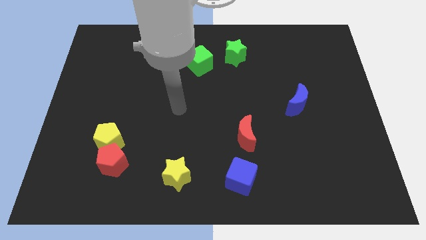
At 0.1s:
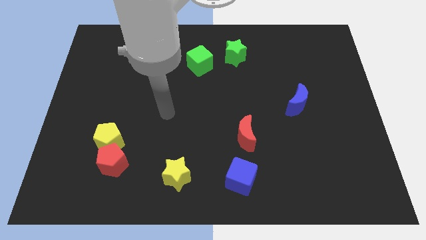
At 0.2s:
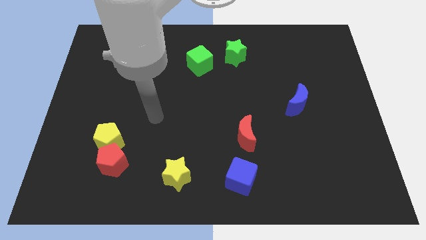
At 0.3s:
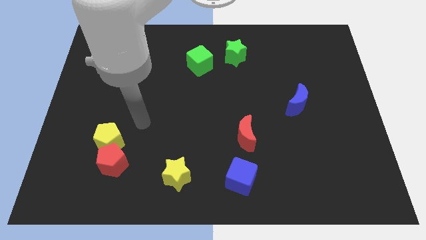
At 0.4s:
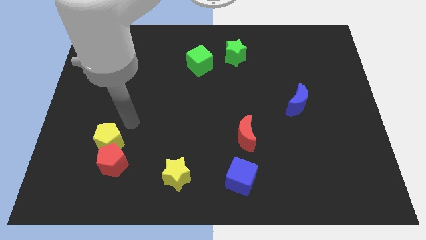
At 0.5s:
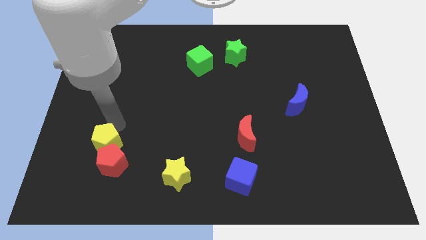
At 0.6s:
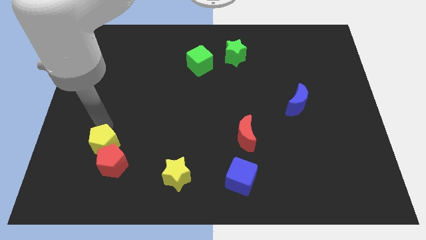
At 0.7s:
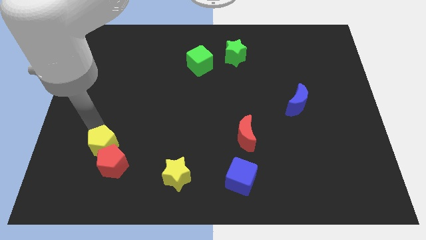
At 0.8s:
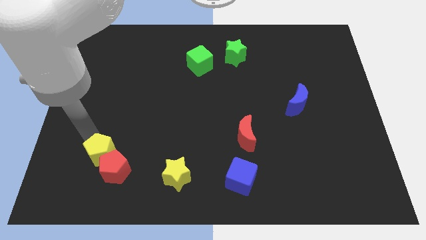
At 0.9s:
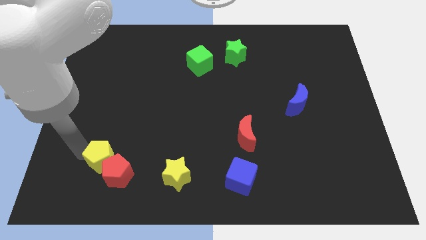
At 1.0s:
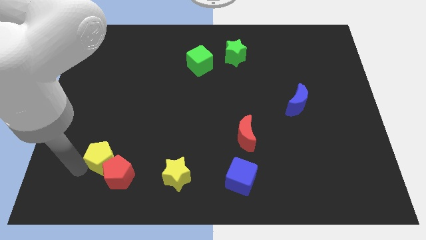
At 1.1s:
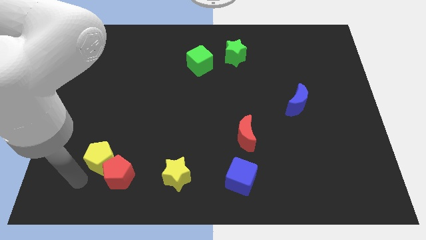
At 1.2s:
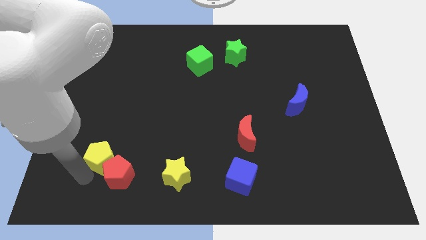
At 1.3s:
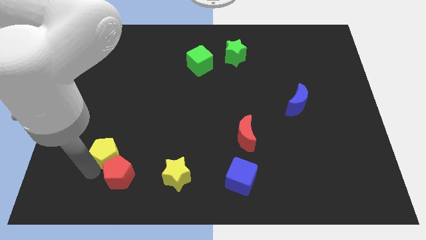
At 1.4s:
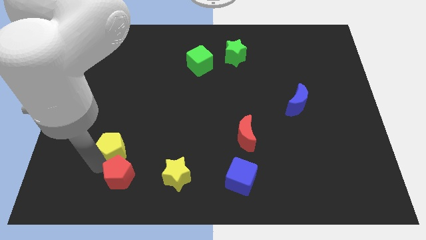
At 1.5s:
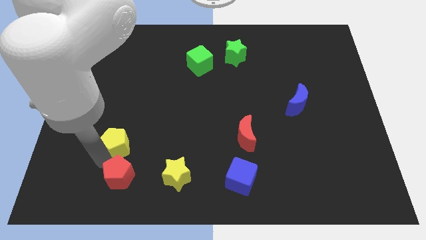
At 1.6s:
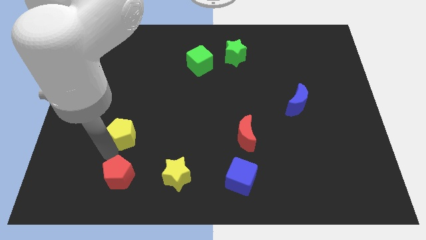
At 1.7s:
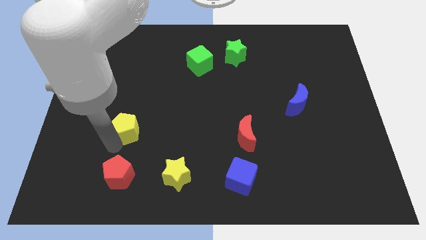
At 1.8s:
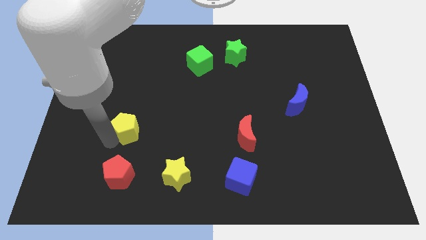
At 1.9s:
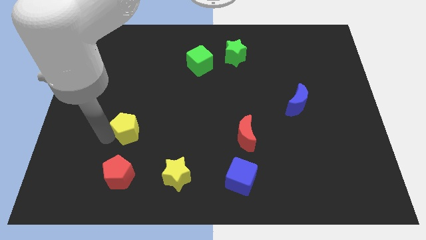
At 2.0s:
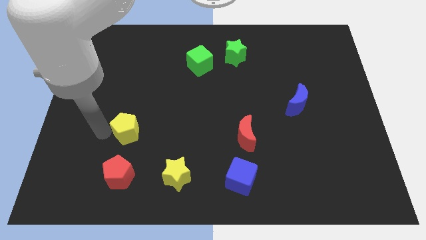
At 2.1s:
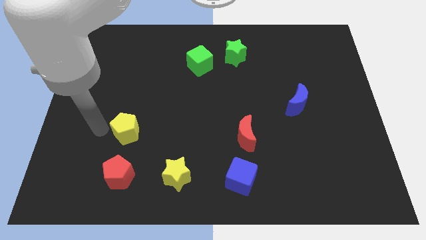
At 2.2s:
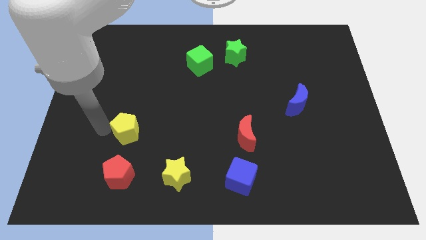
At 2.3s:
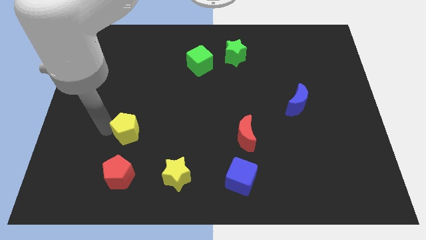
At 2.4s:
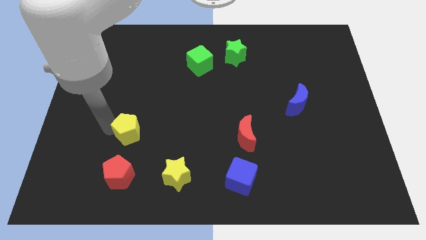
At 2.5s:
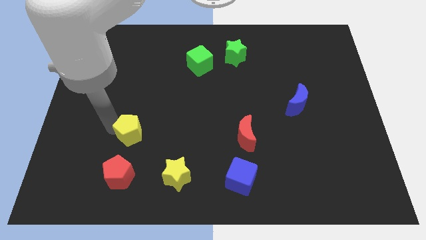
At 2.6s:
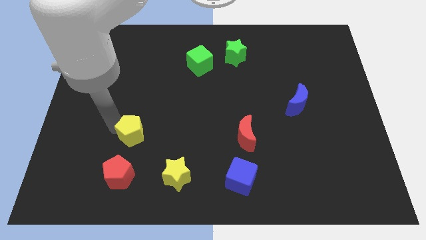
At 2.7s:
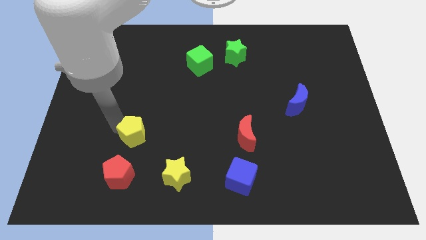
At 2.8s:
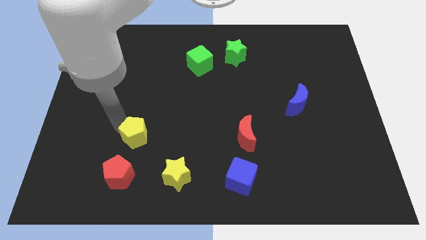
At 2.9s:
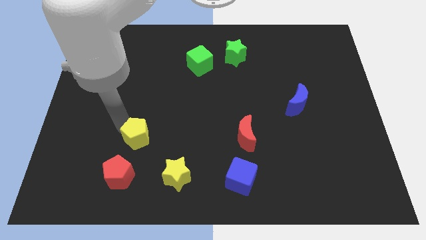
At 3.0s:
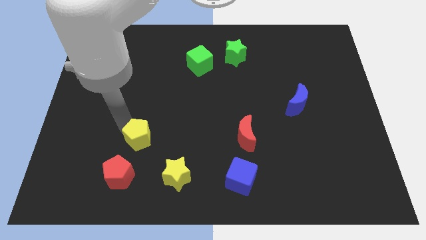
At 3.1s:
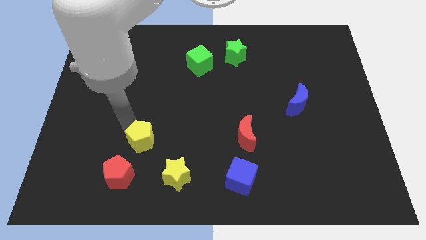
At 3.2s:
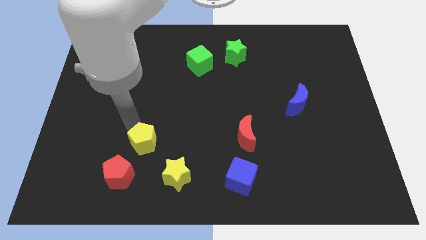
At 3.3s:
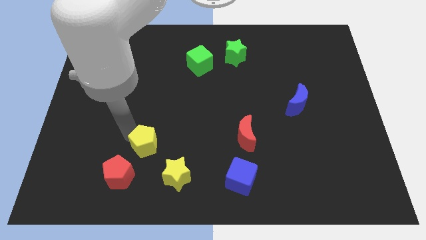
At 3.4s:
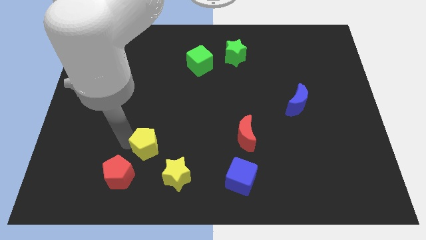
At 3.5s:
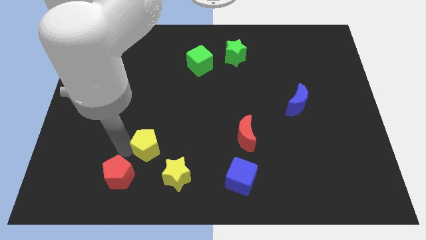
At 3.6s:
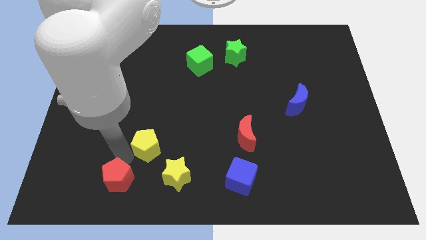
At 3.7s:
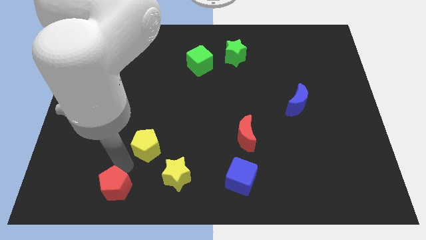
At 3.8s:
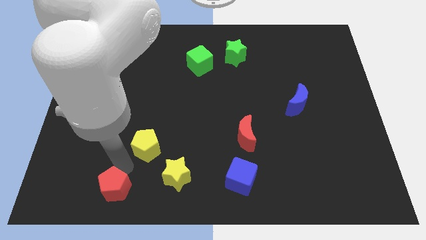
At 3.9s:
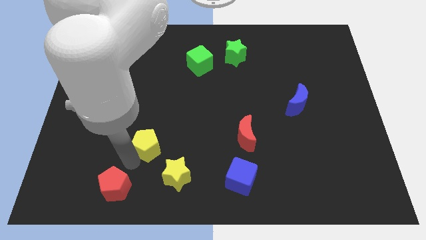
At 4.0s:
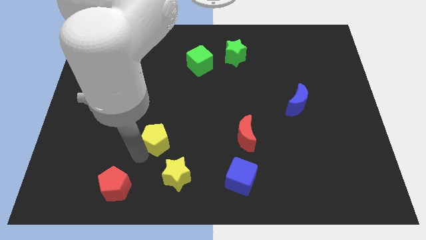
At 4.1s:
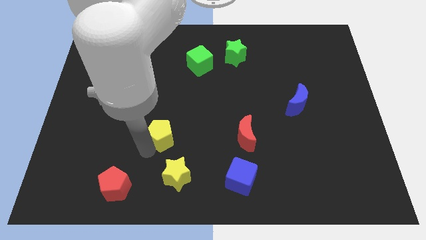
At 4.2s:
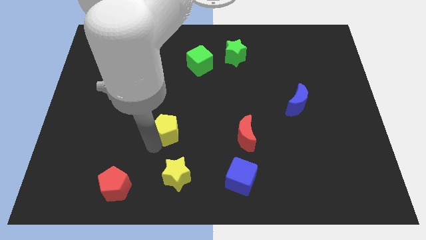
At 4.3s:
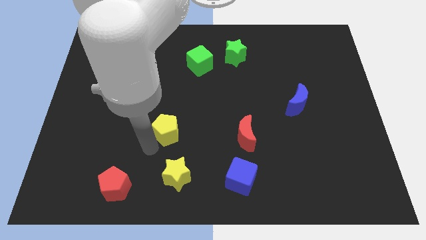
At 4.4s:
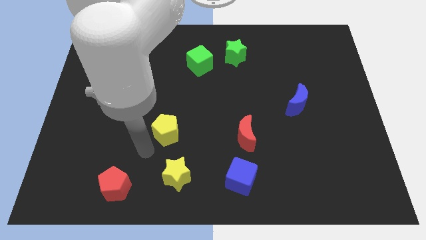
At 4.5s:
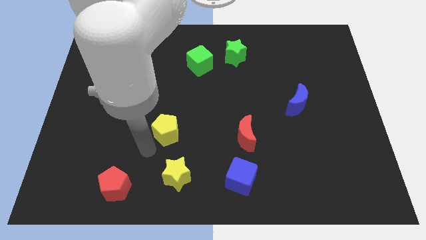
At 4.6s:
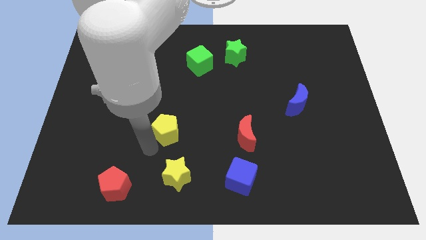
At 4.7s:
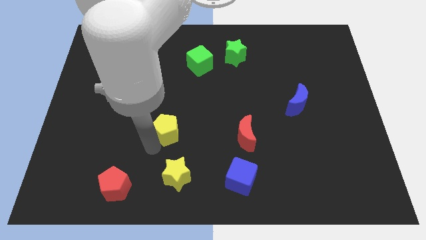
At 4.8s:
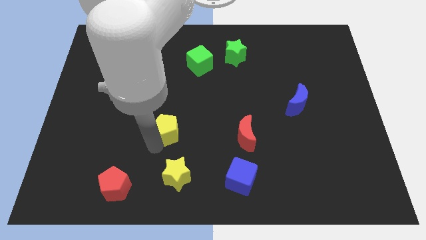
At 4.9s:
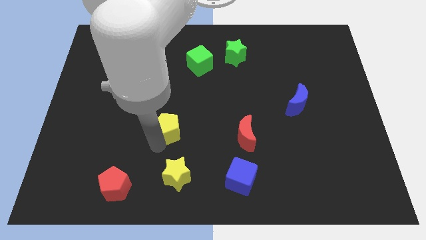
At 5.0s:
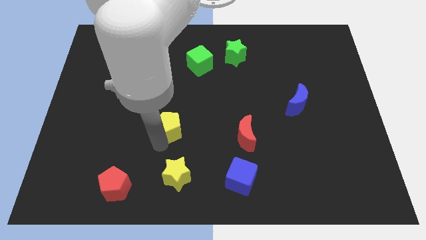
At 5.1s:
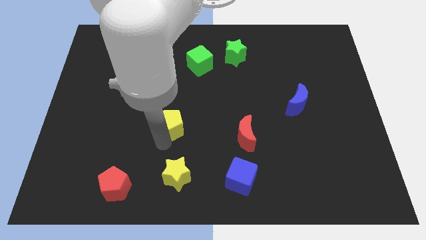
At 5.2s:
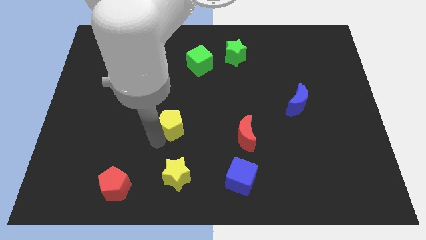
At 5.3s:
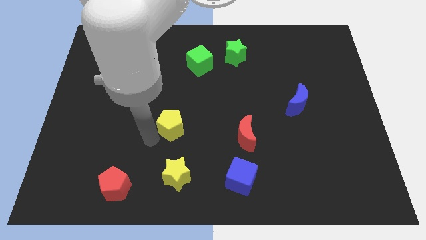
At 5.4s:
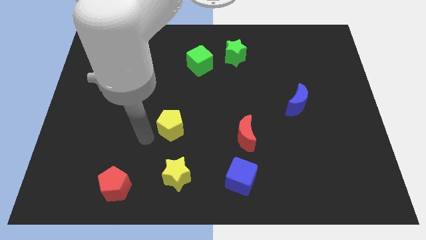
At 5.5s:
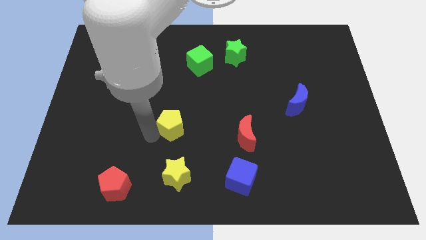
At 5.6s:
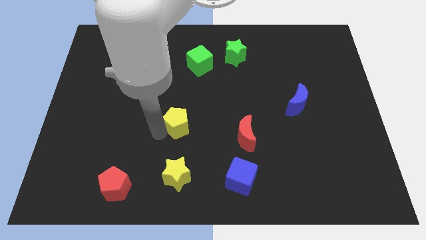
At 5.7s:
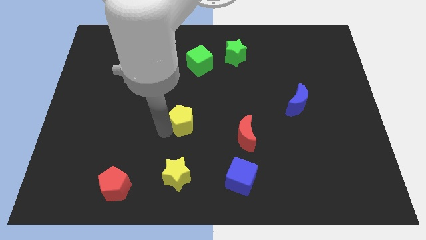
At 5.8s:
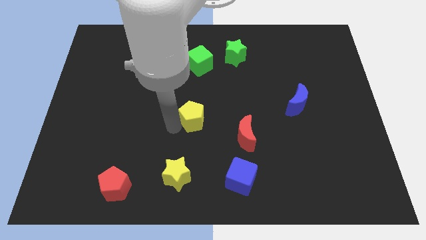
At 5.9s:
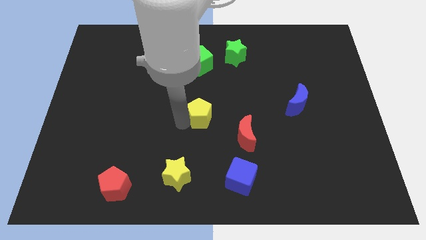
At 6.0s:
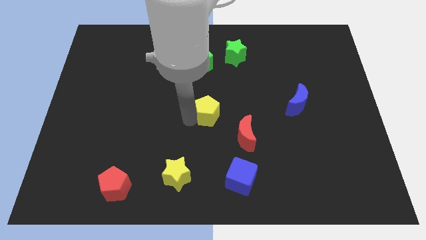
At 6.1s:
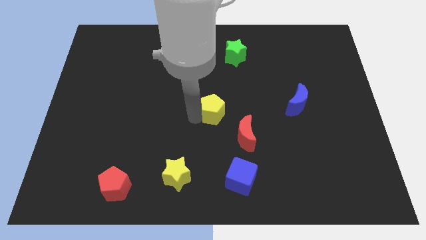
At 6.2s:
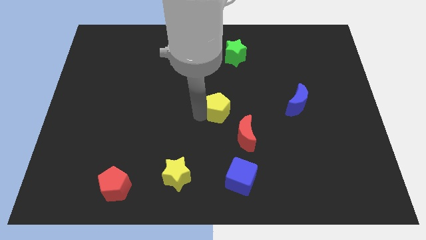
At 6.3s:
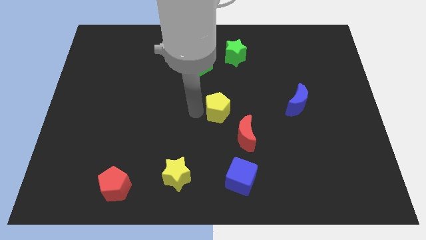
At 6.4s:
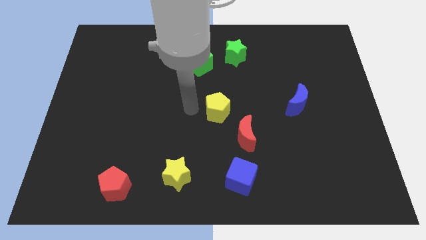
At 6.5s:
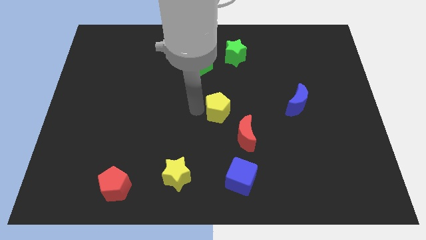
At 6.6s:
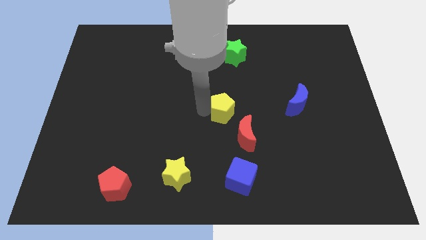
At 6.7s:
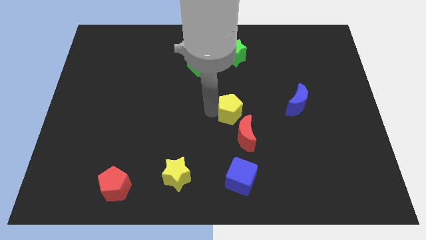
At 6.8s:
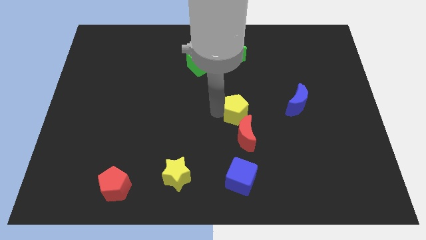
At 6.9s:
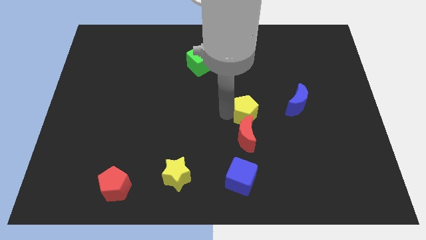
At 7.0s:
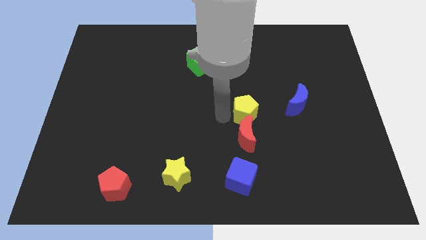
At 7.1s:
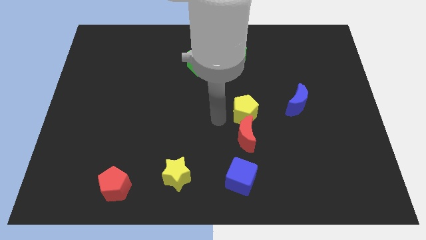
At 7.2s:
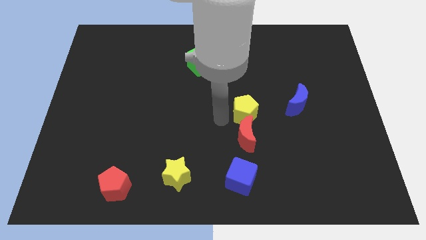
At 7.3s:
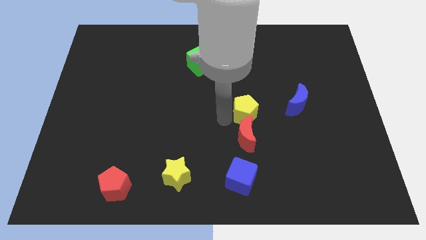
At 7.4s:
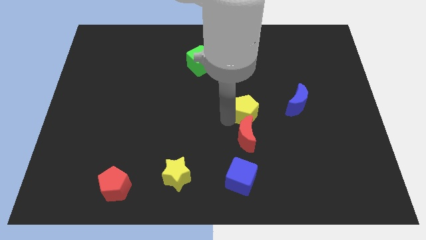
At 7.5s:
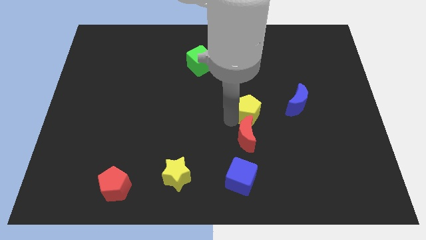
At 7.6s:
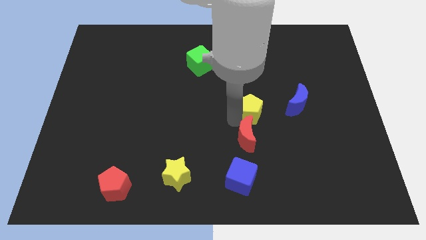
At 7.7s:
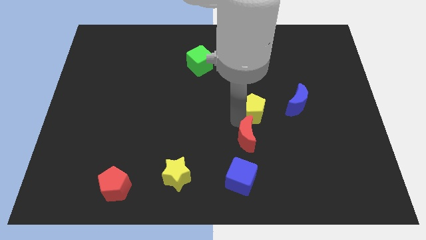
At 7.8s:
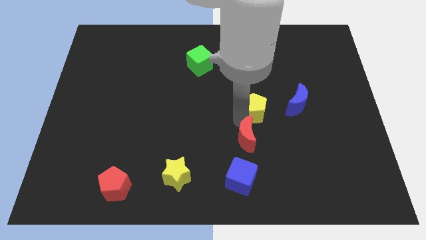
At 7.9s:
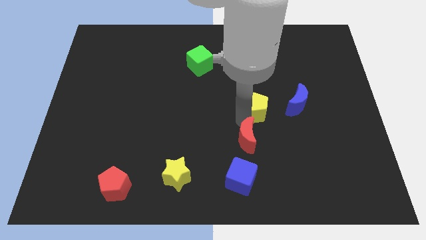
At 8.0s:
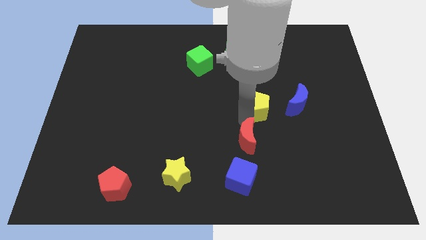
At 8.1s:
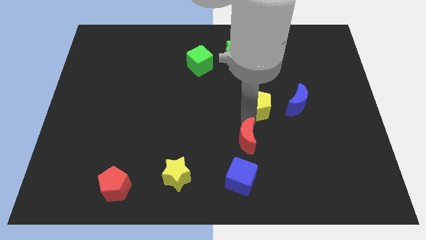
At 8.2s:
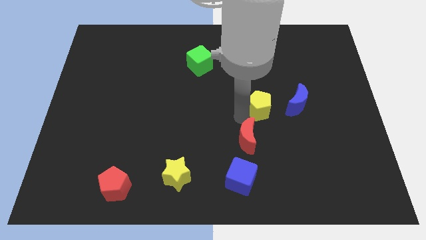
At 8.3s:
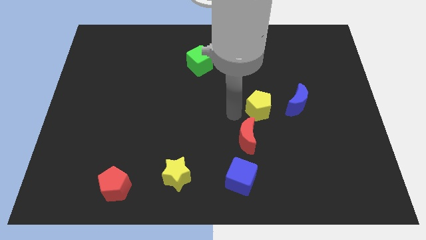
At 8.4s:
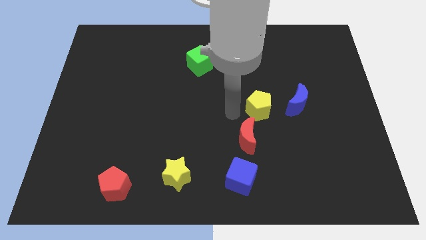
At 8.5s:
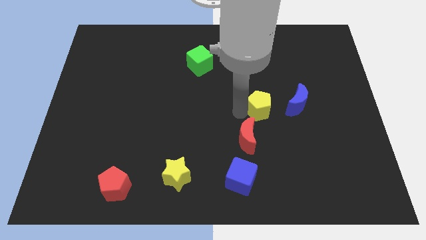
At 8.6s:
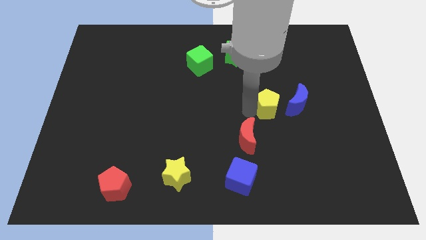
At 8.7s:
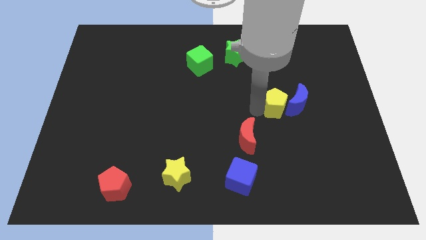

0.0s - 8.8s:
slide the yellow pentagon next to the blue moon
